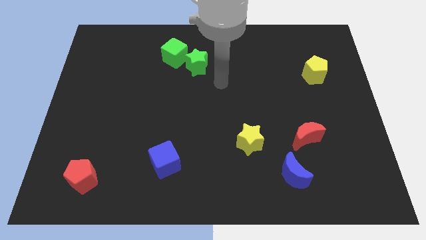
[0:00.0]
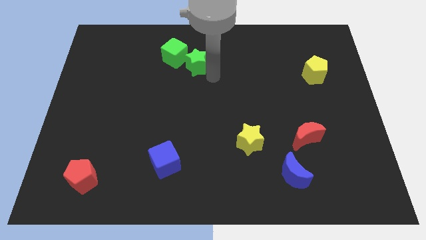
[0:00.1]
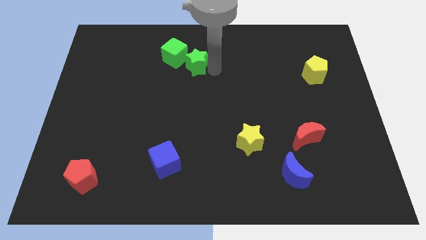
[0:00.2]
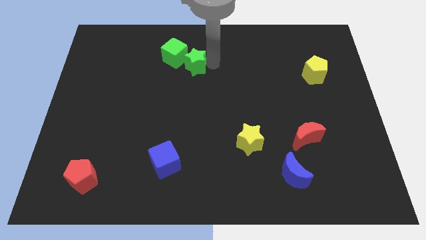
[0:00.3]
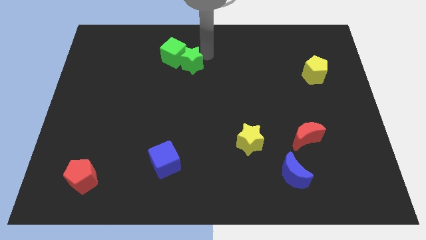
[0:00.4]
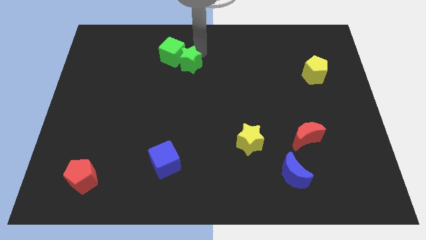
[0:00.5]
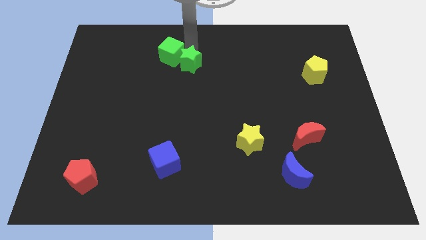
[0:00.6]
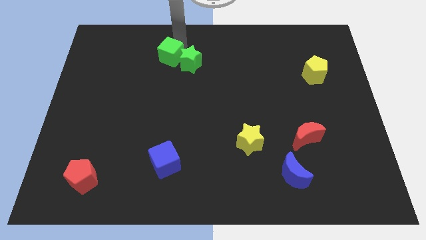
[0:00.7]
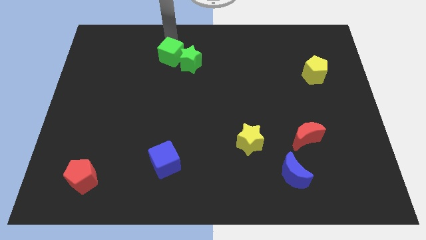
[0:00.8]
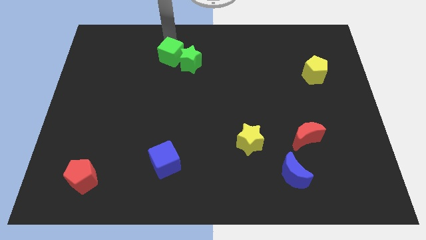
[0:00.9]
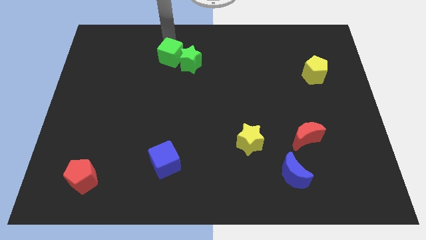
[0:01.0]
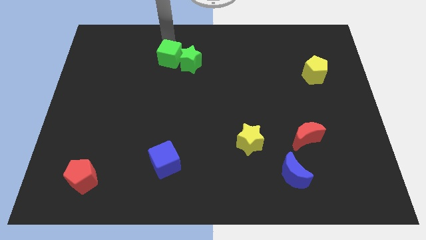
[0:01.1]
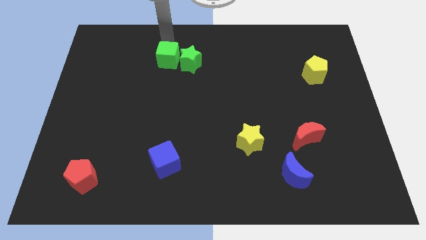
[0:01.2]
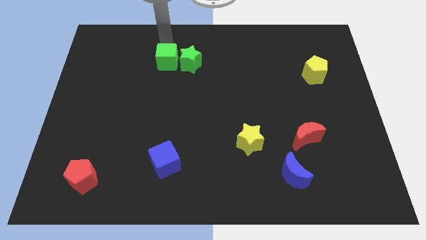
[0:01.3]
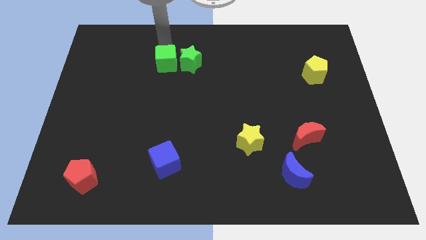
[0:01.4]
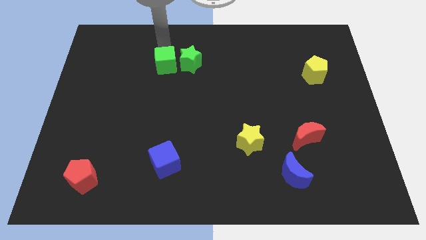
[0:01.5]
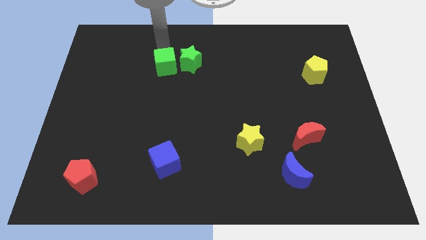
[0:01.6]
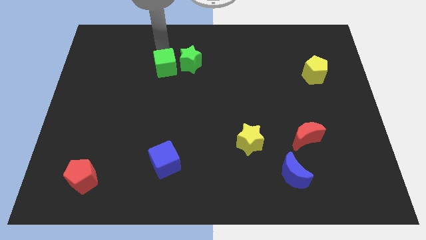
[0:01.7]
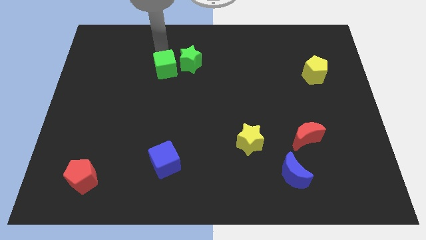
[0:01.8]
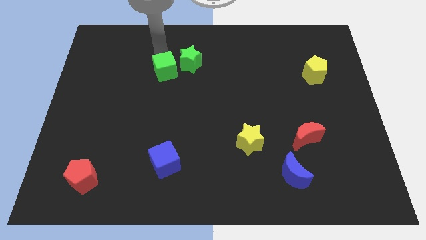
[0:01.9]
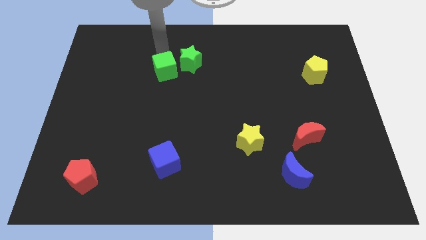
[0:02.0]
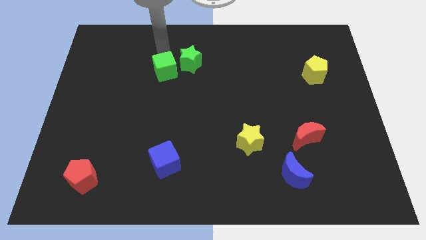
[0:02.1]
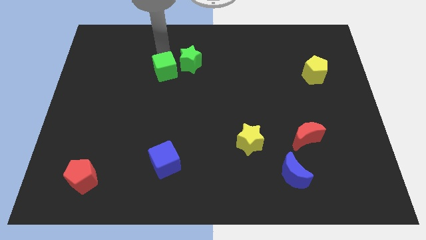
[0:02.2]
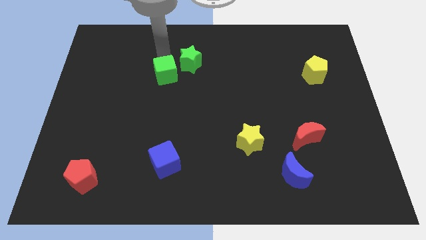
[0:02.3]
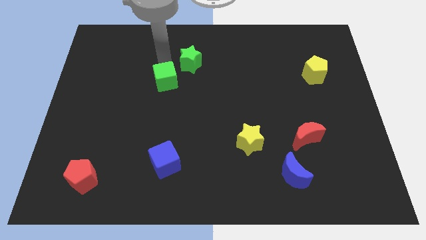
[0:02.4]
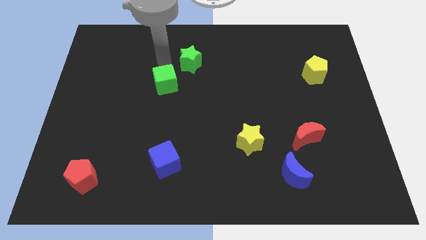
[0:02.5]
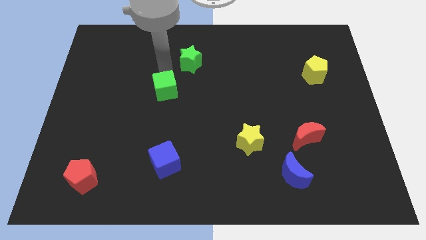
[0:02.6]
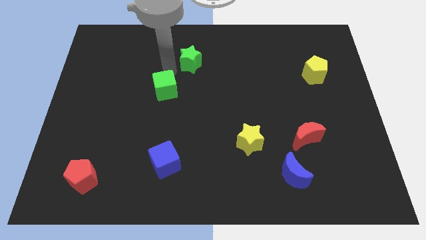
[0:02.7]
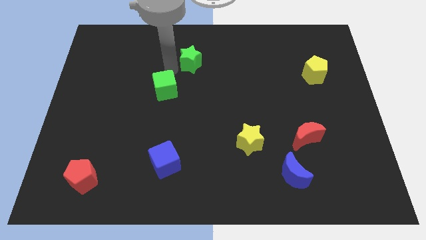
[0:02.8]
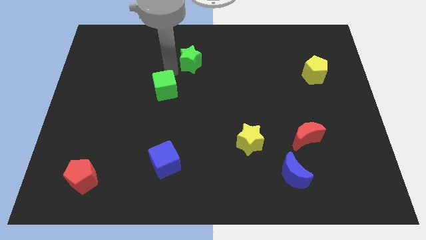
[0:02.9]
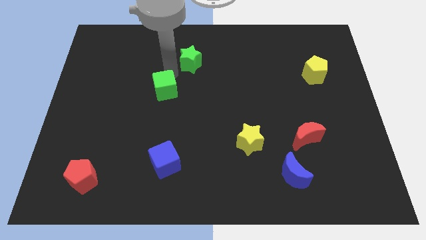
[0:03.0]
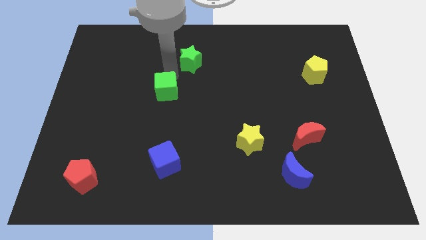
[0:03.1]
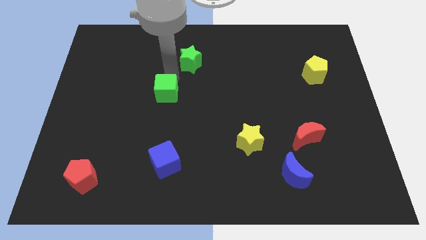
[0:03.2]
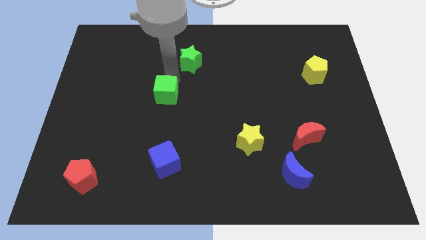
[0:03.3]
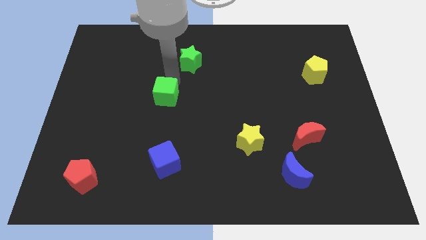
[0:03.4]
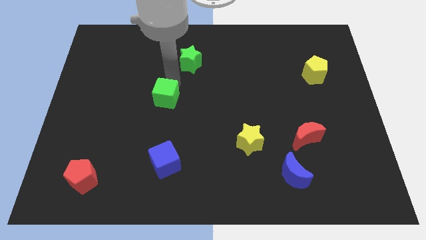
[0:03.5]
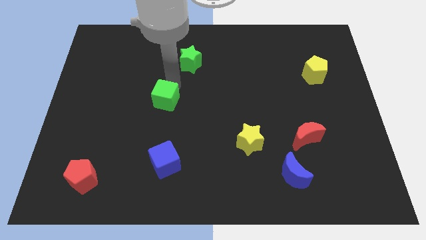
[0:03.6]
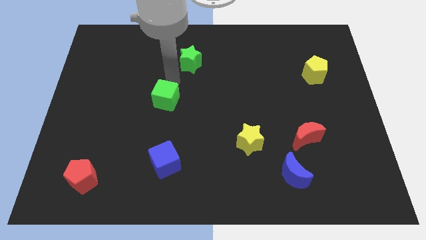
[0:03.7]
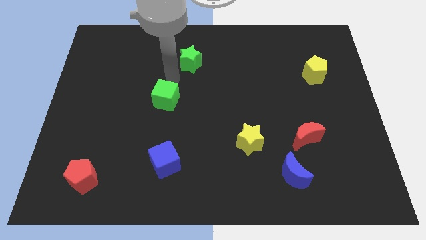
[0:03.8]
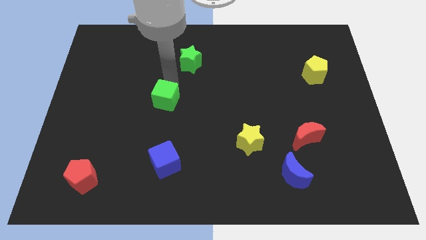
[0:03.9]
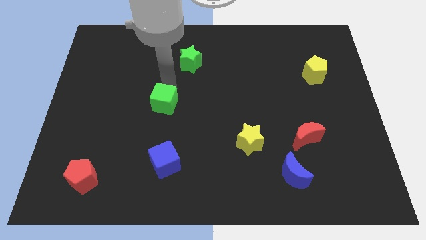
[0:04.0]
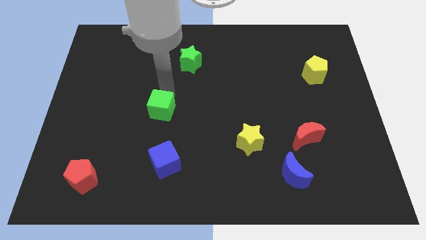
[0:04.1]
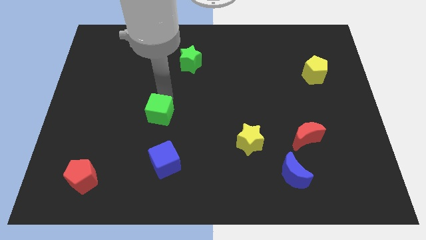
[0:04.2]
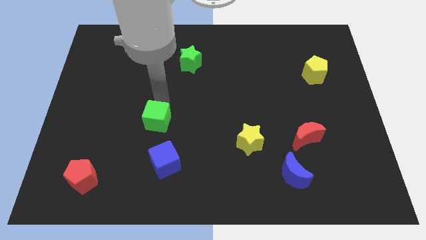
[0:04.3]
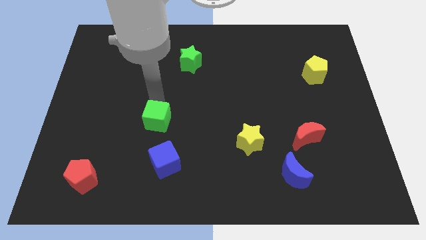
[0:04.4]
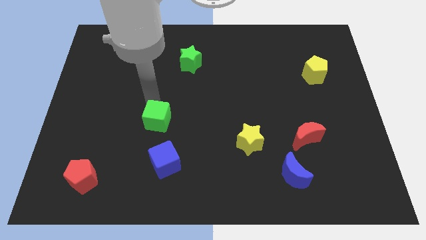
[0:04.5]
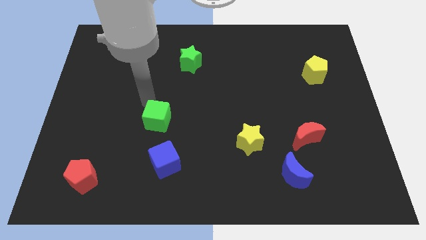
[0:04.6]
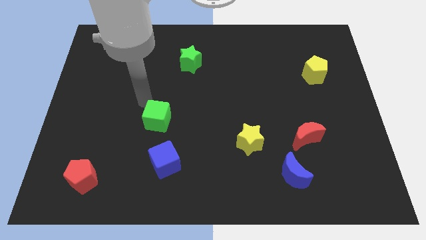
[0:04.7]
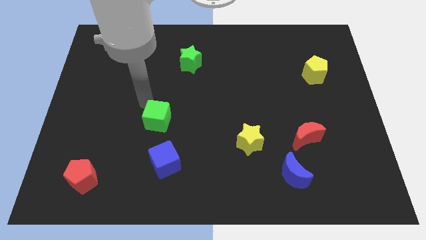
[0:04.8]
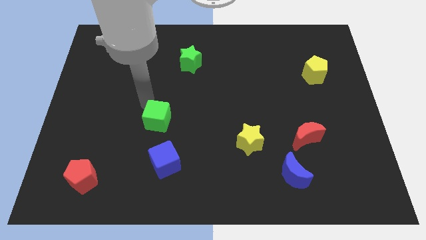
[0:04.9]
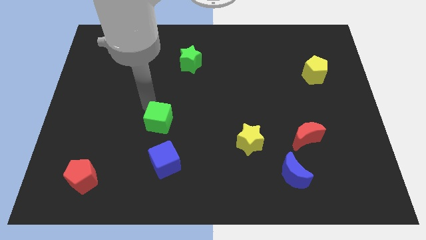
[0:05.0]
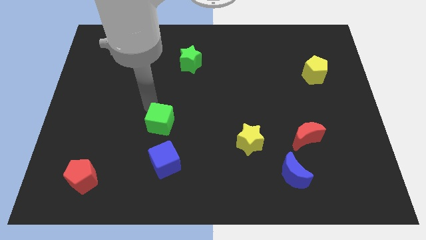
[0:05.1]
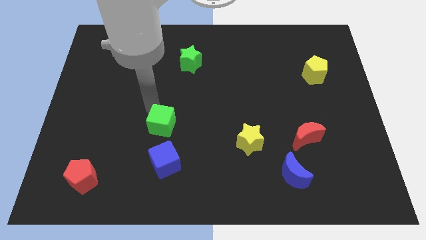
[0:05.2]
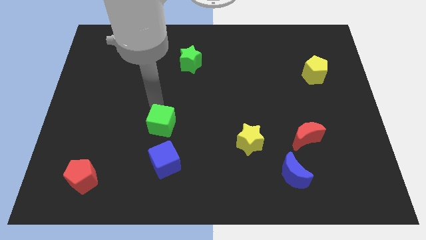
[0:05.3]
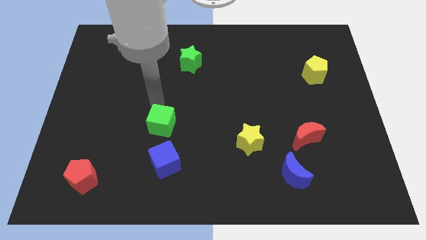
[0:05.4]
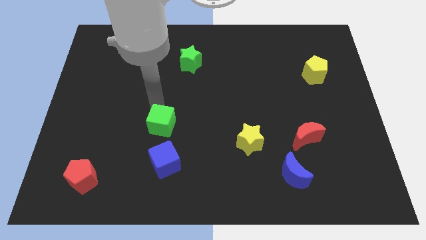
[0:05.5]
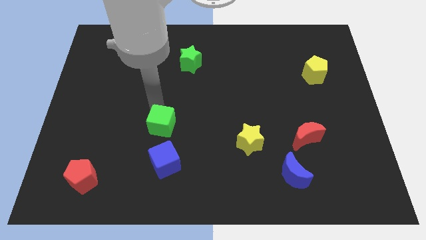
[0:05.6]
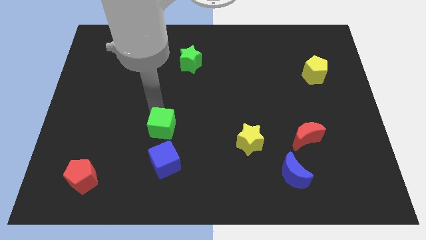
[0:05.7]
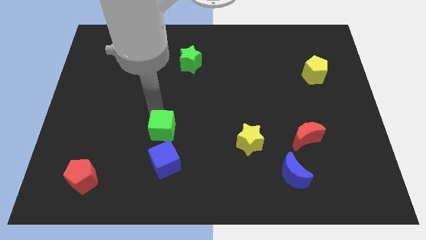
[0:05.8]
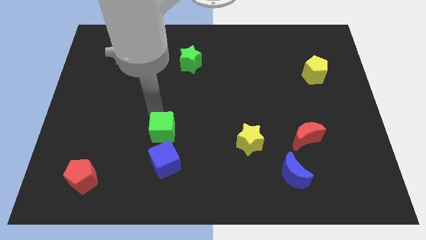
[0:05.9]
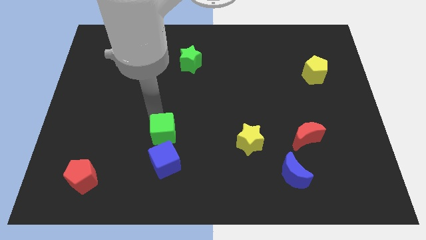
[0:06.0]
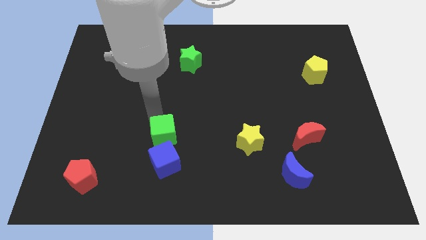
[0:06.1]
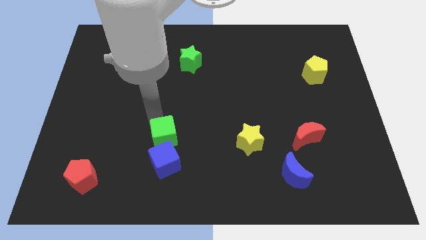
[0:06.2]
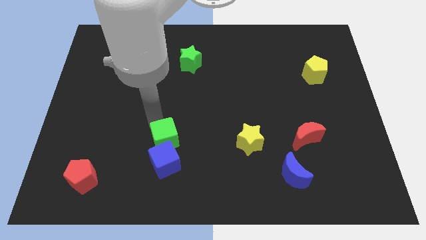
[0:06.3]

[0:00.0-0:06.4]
move the green cube close to the blue cube
